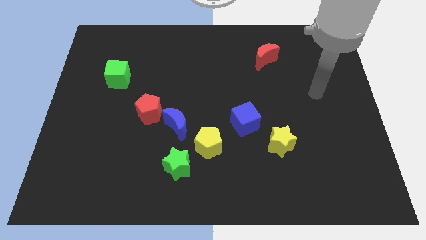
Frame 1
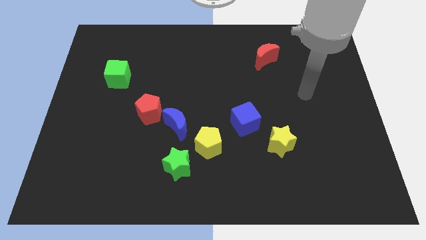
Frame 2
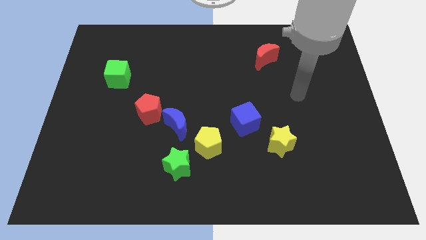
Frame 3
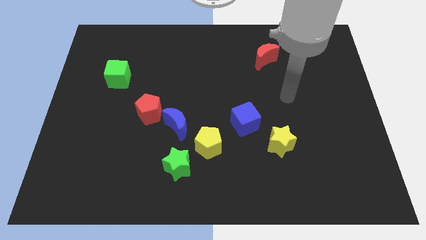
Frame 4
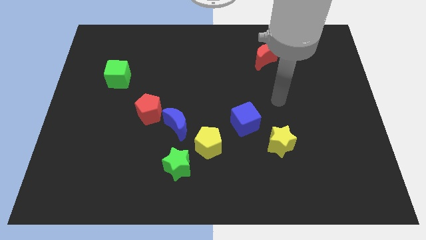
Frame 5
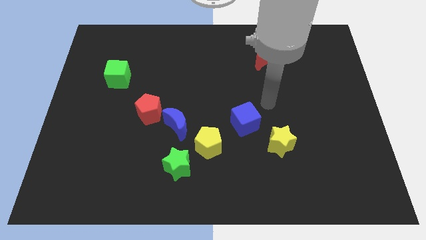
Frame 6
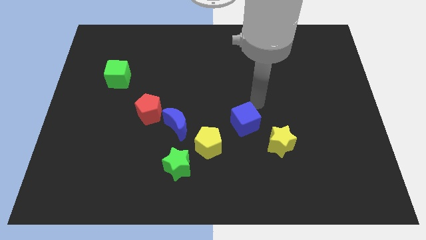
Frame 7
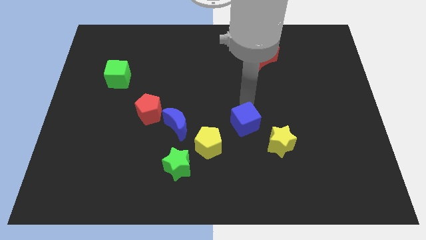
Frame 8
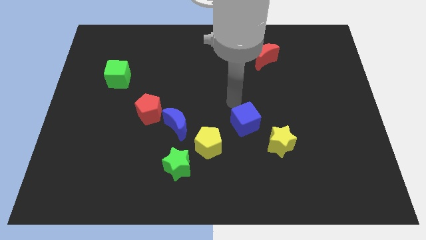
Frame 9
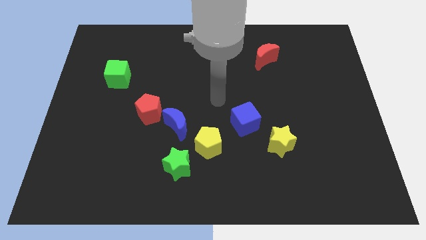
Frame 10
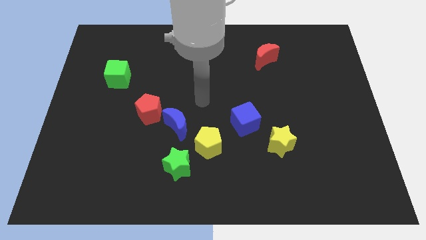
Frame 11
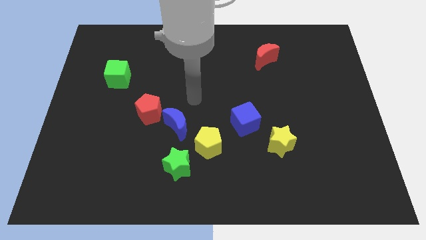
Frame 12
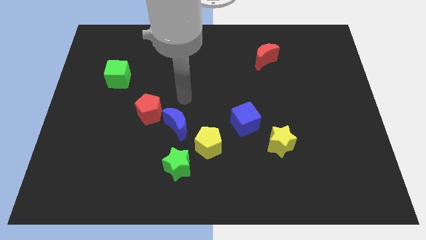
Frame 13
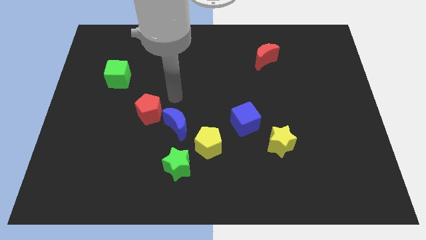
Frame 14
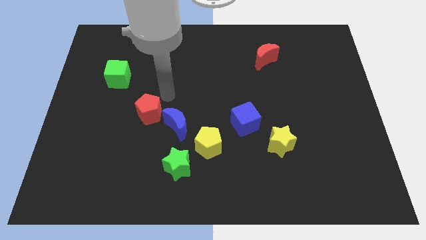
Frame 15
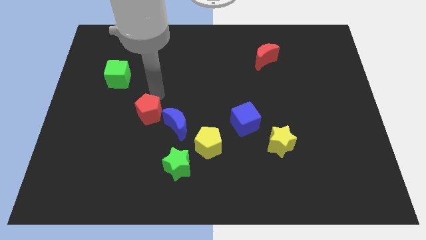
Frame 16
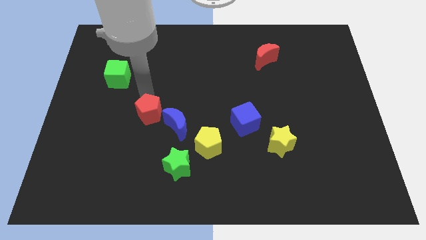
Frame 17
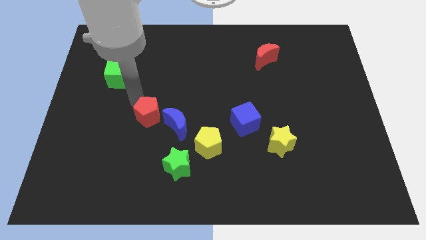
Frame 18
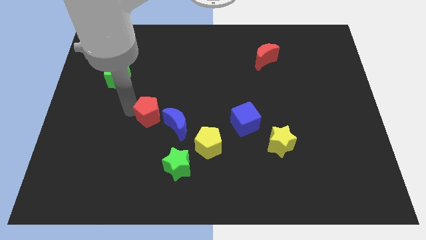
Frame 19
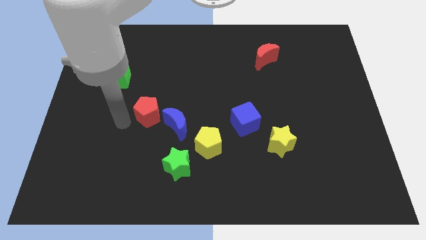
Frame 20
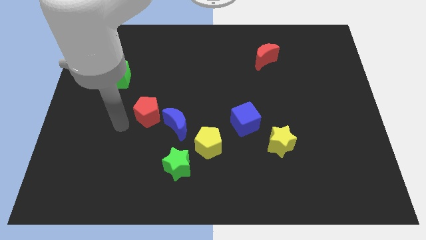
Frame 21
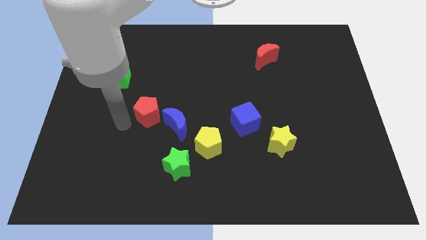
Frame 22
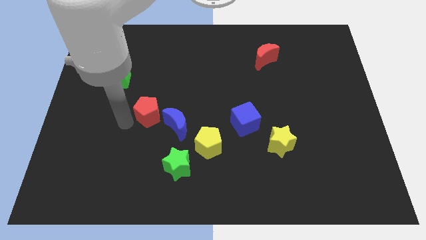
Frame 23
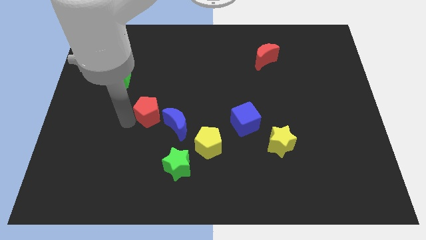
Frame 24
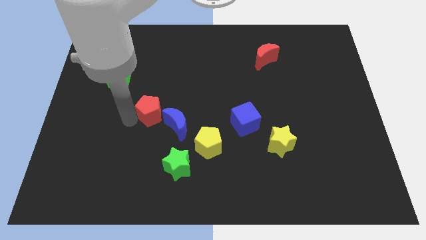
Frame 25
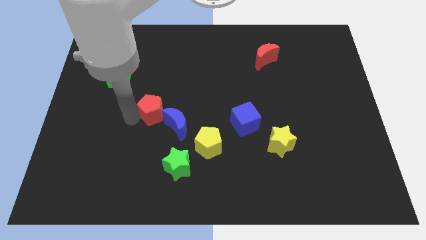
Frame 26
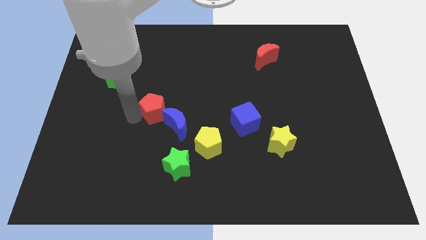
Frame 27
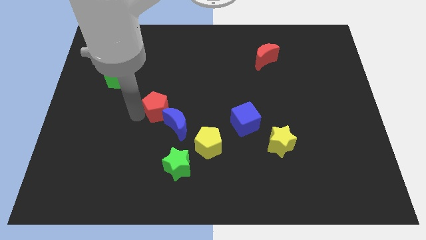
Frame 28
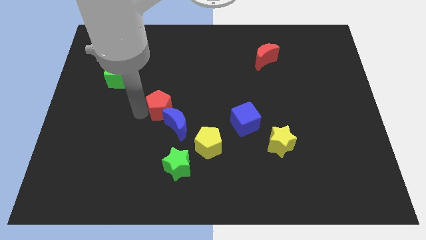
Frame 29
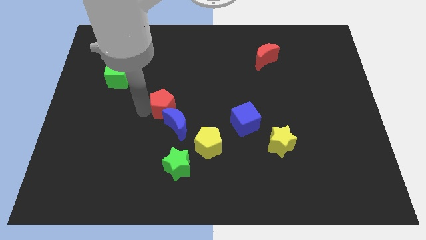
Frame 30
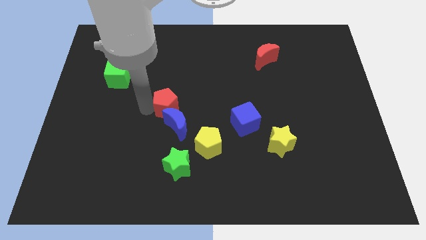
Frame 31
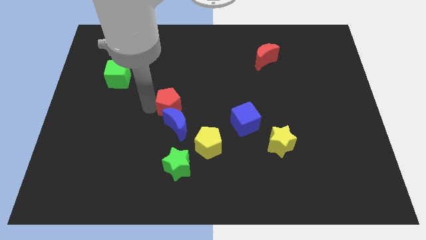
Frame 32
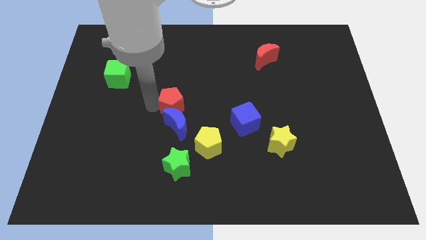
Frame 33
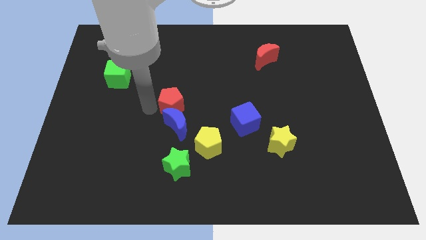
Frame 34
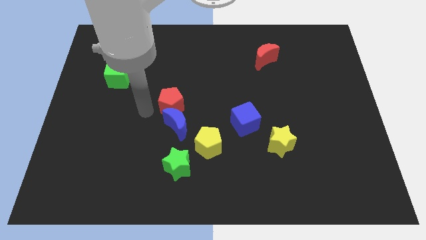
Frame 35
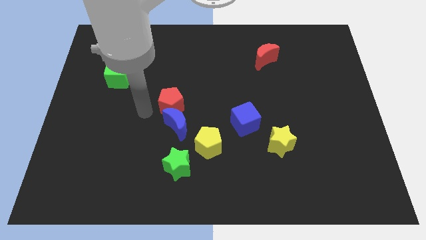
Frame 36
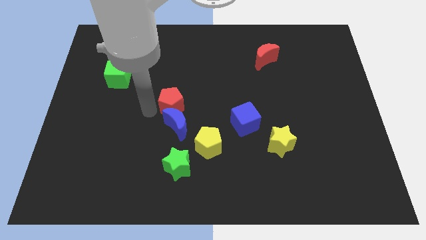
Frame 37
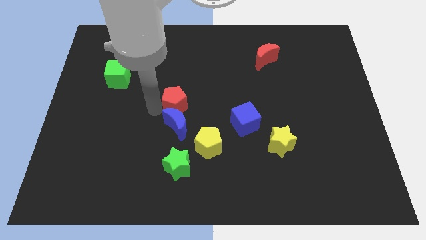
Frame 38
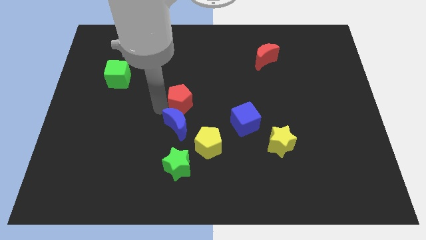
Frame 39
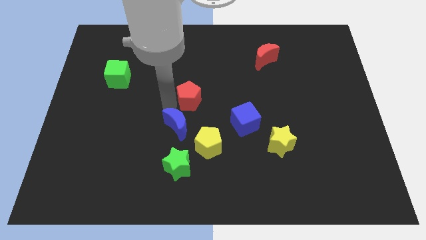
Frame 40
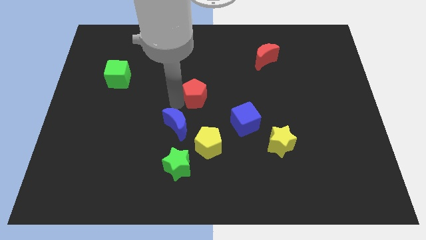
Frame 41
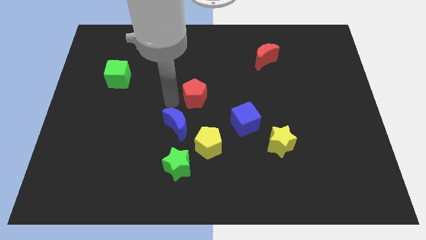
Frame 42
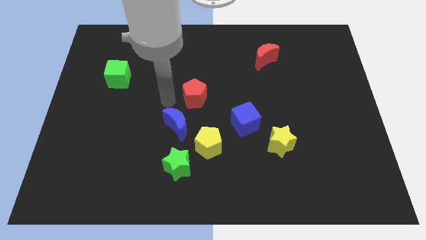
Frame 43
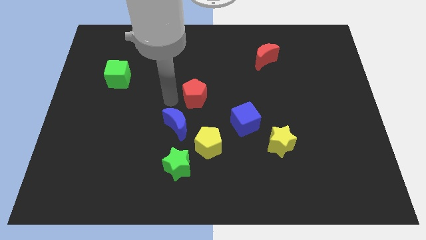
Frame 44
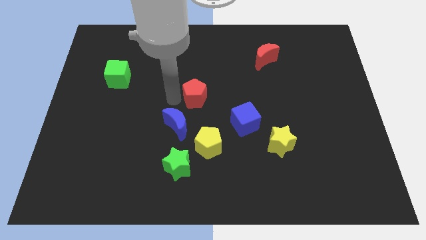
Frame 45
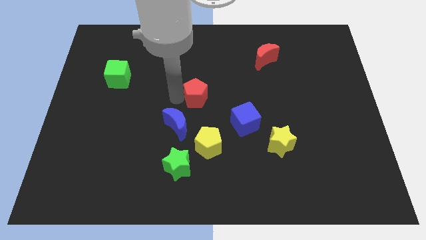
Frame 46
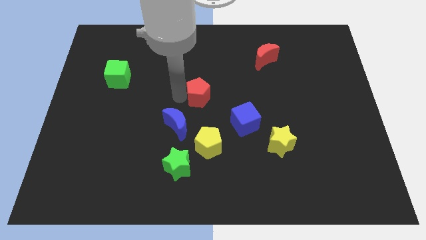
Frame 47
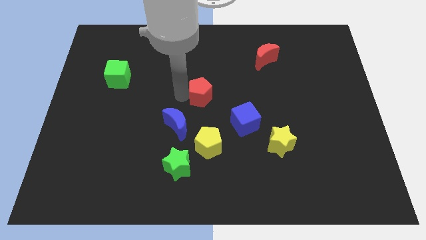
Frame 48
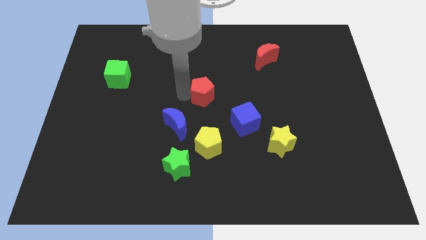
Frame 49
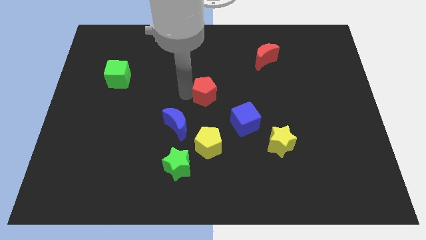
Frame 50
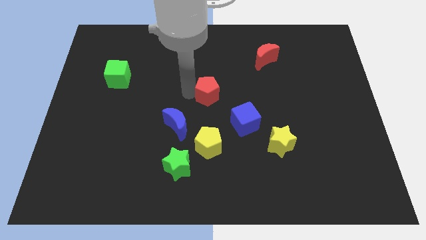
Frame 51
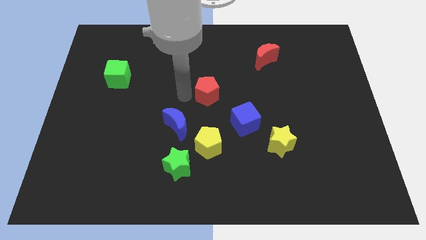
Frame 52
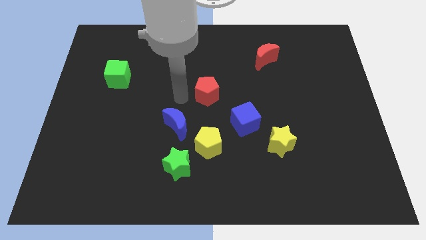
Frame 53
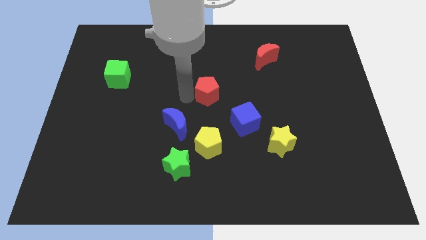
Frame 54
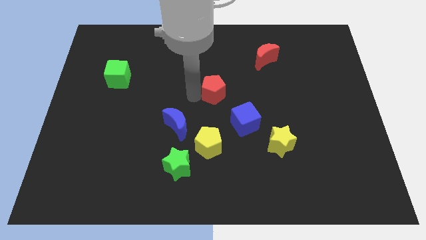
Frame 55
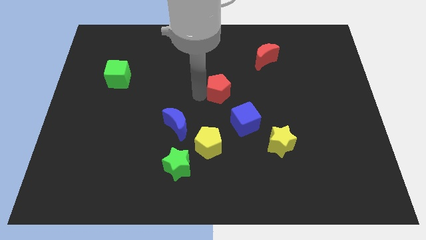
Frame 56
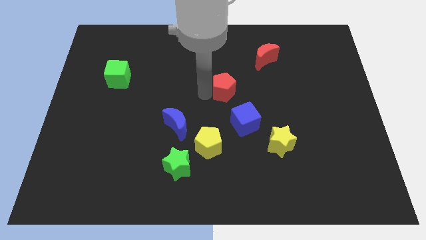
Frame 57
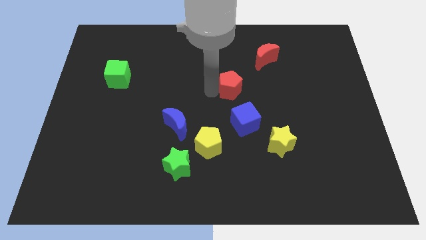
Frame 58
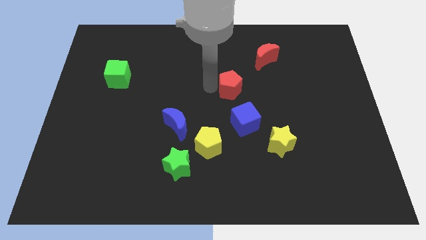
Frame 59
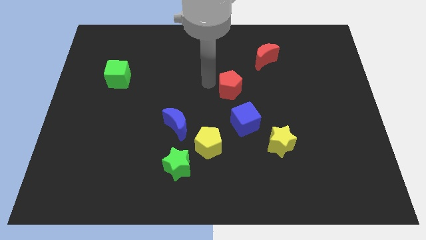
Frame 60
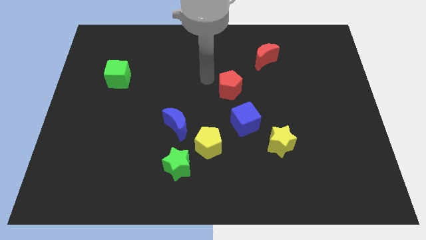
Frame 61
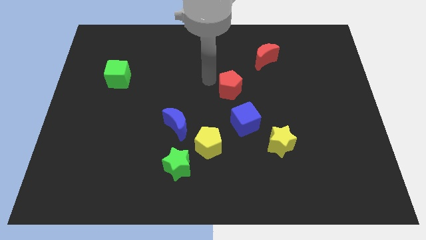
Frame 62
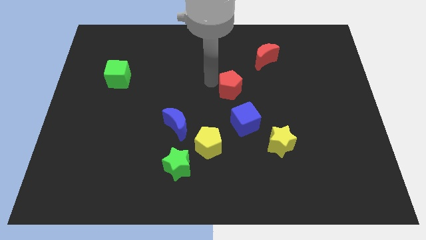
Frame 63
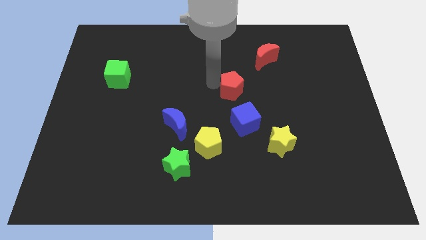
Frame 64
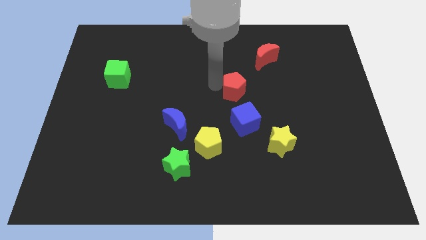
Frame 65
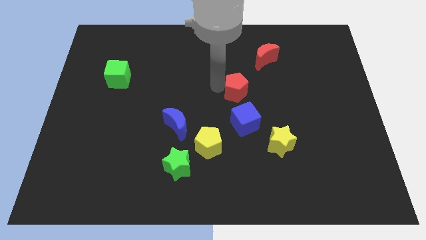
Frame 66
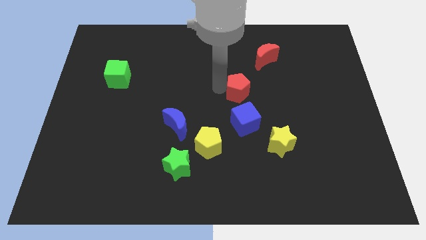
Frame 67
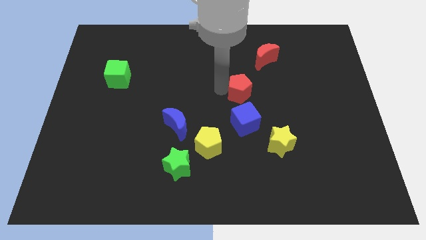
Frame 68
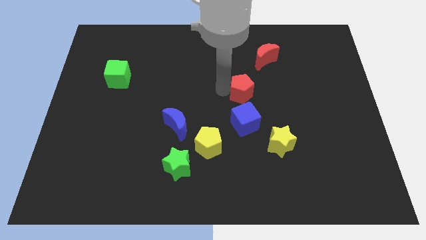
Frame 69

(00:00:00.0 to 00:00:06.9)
slide the red pentagon to the right

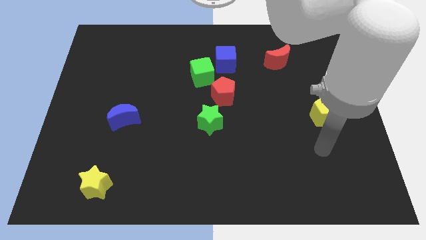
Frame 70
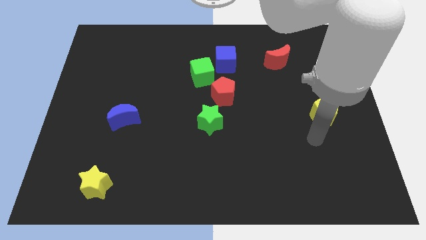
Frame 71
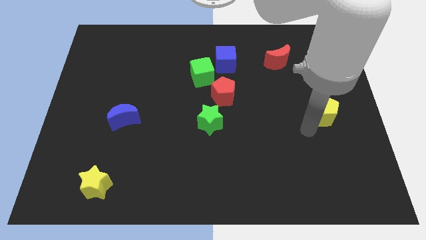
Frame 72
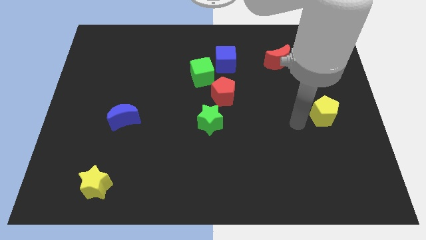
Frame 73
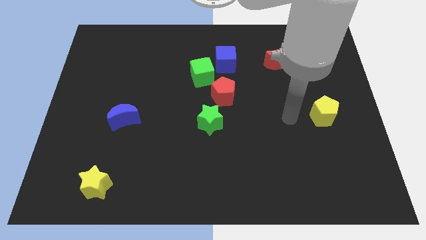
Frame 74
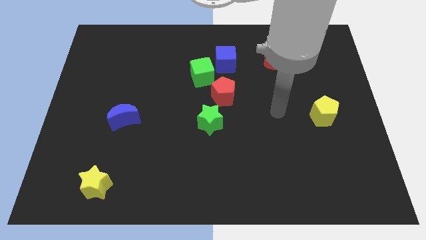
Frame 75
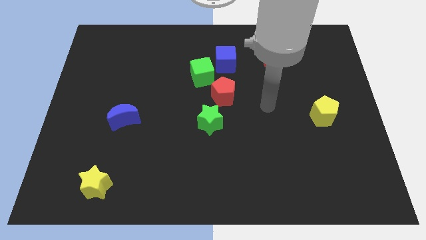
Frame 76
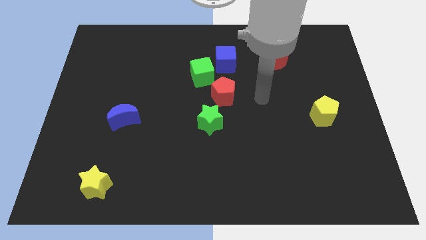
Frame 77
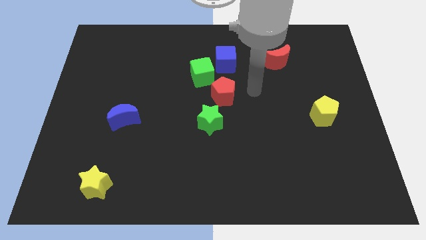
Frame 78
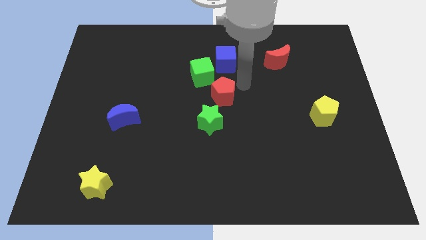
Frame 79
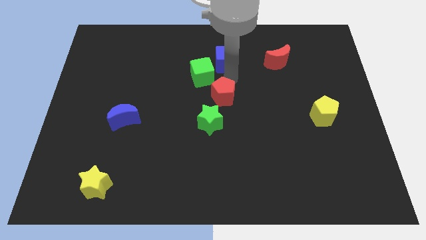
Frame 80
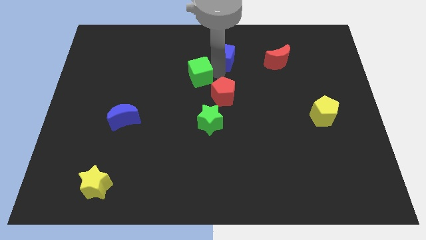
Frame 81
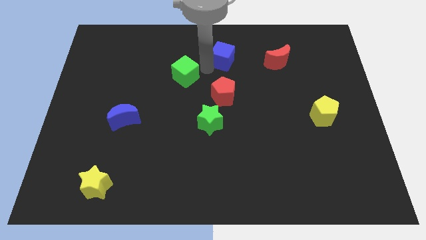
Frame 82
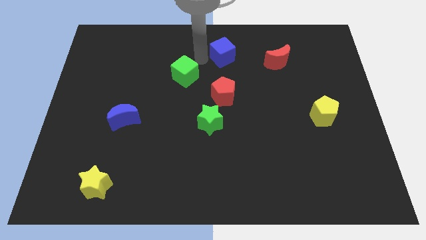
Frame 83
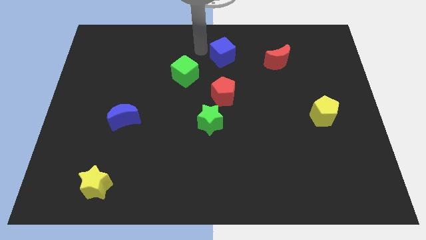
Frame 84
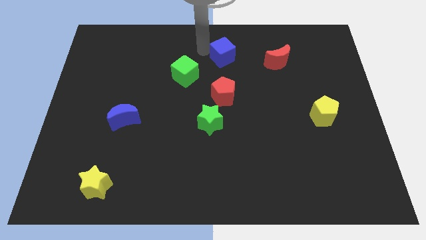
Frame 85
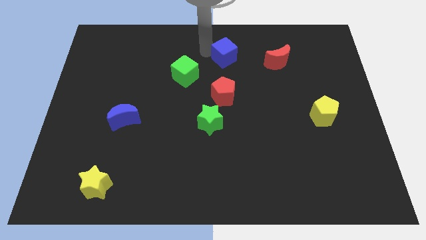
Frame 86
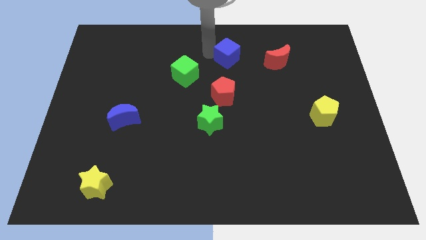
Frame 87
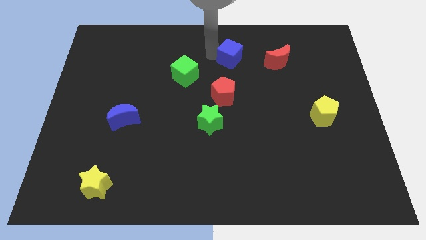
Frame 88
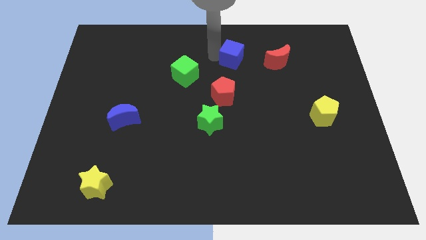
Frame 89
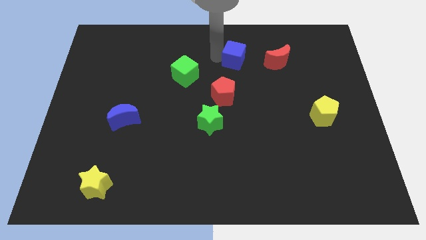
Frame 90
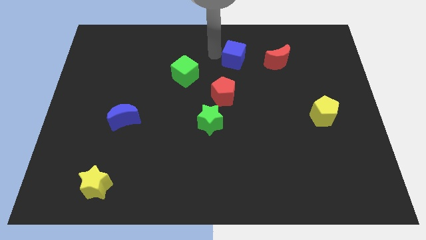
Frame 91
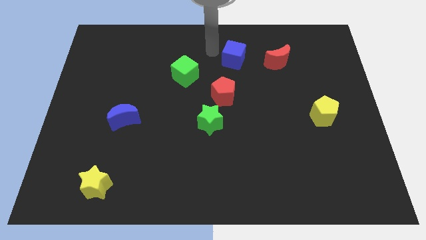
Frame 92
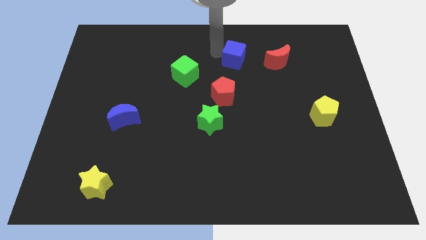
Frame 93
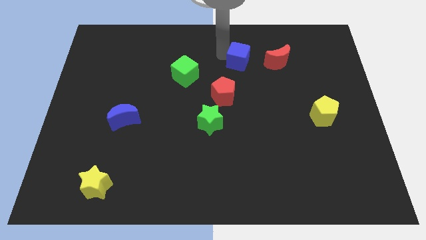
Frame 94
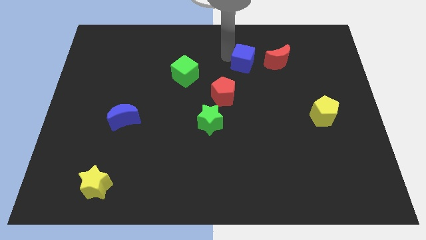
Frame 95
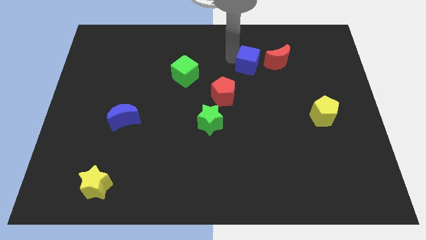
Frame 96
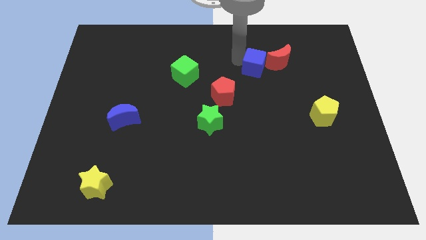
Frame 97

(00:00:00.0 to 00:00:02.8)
push the blue cube a little bit to the right
